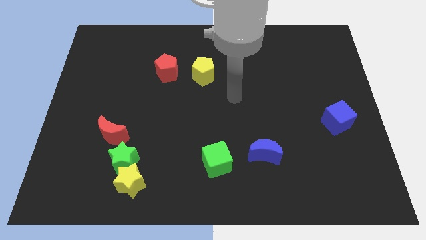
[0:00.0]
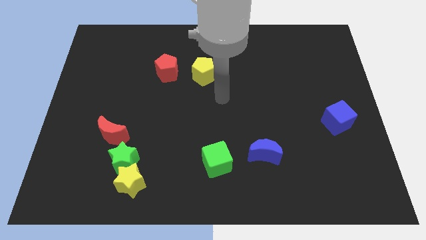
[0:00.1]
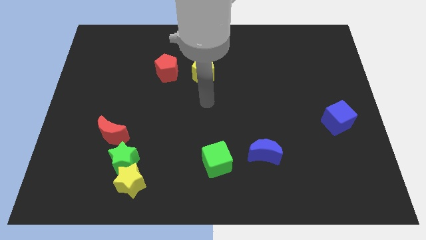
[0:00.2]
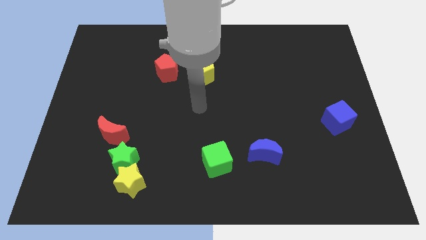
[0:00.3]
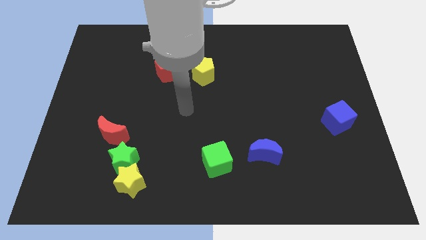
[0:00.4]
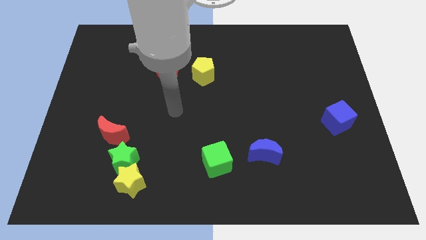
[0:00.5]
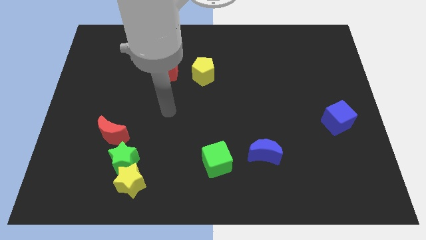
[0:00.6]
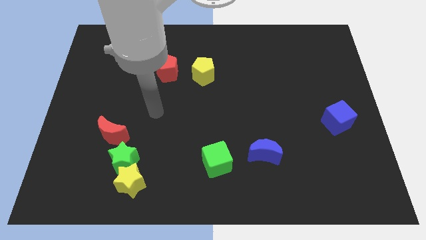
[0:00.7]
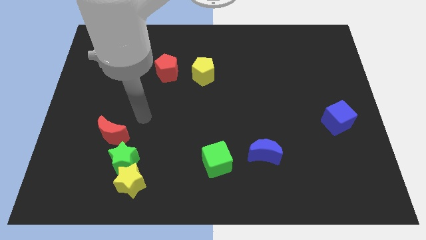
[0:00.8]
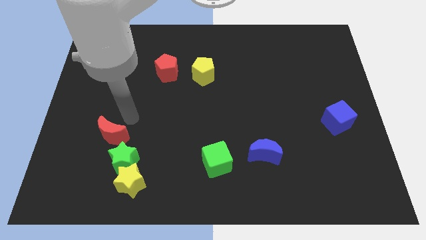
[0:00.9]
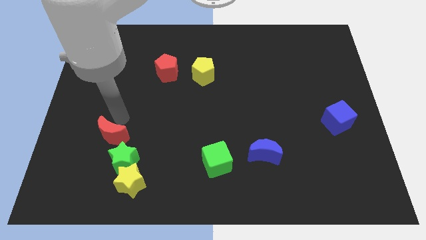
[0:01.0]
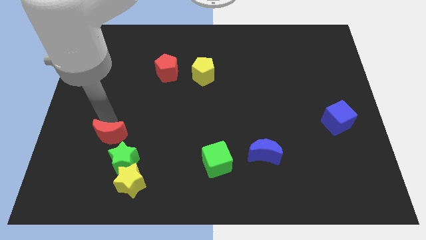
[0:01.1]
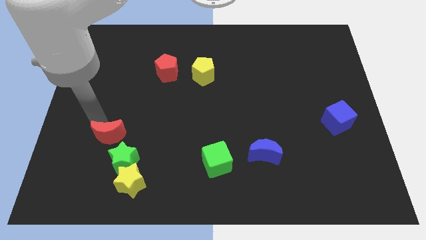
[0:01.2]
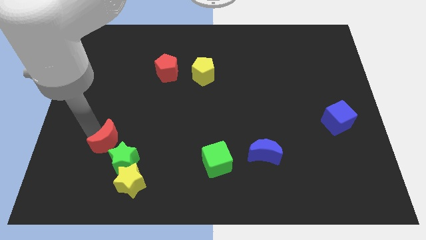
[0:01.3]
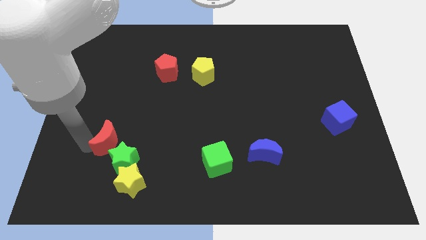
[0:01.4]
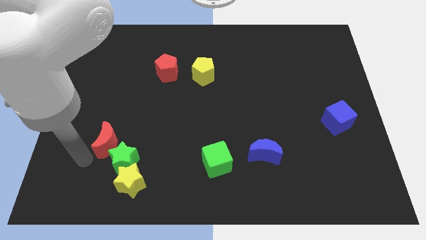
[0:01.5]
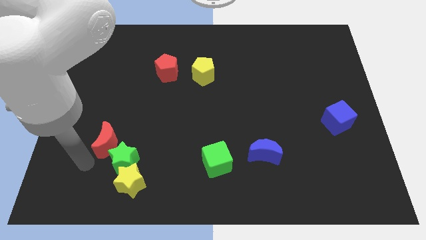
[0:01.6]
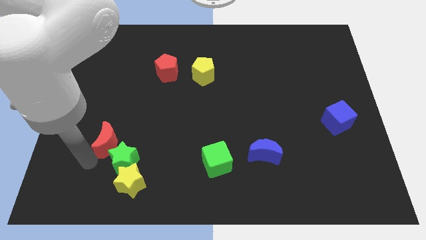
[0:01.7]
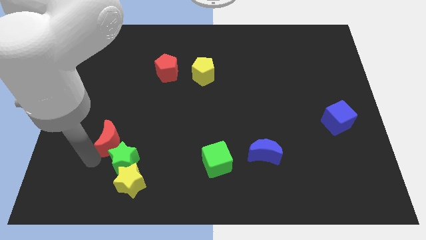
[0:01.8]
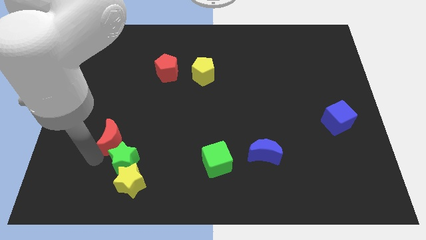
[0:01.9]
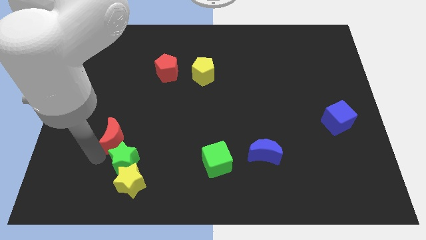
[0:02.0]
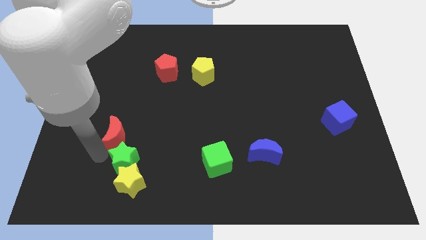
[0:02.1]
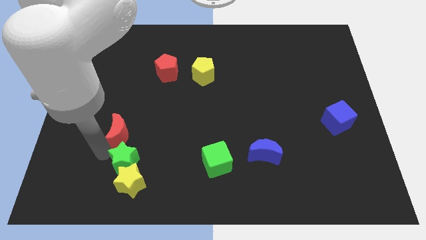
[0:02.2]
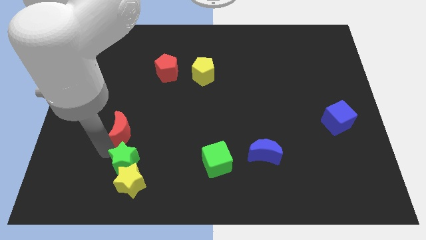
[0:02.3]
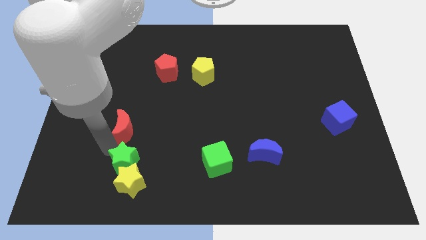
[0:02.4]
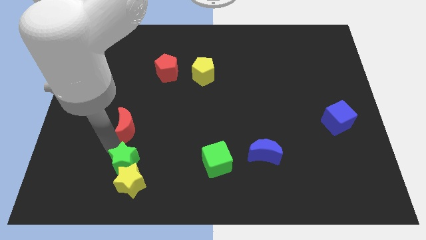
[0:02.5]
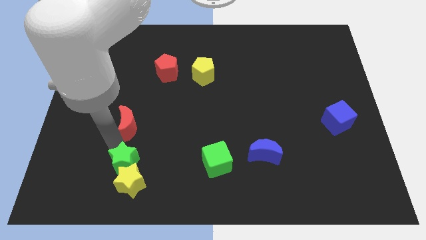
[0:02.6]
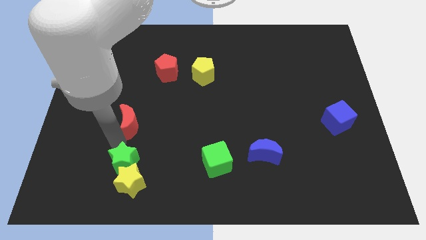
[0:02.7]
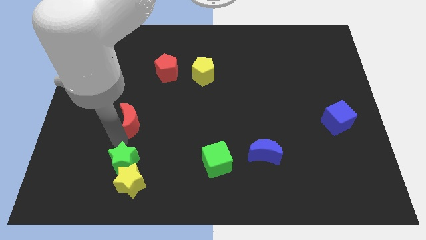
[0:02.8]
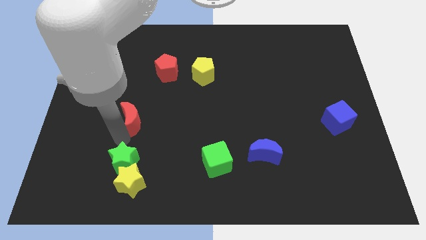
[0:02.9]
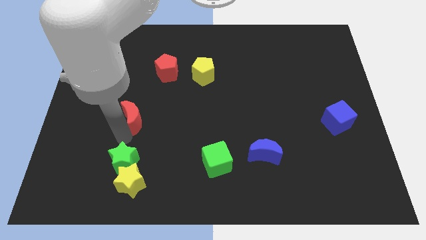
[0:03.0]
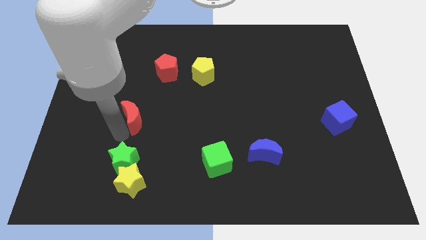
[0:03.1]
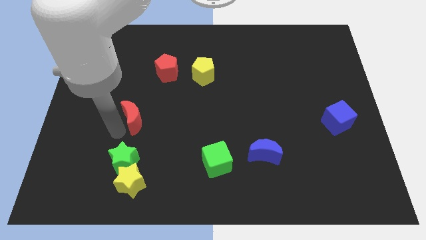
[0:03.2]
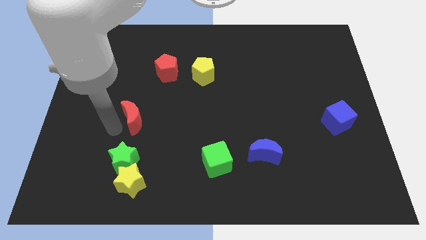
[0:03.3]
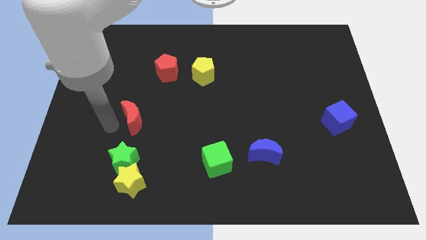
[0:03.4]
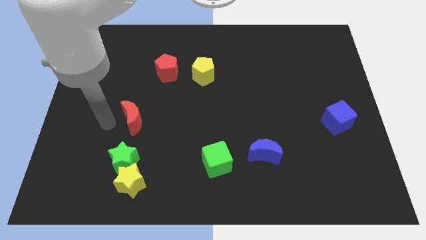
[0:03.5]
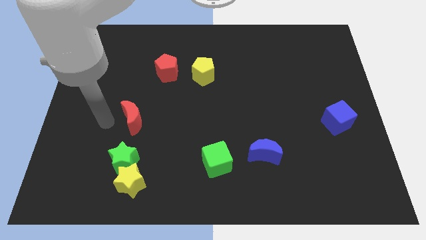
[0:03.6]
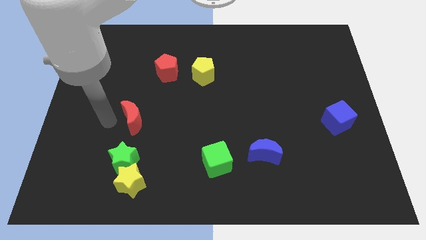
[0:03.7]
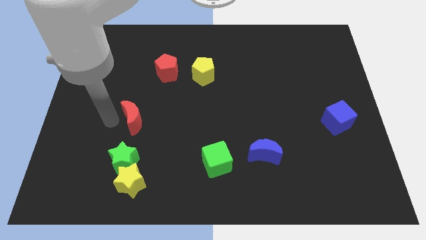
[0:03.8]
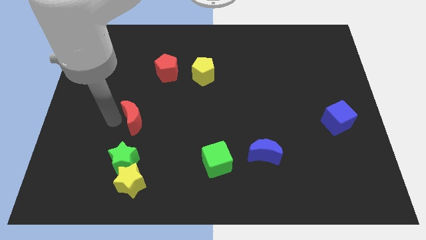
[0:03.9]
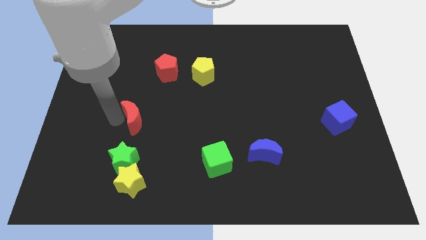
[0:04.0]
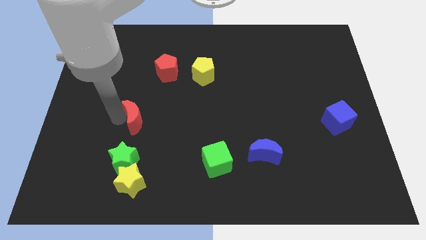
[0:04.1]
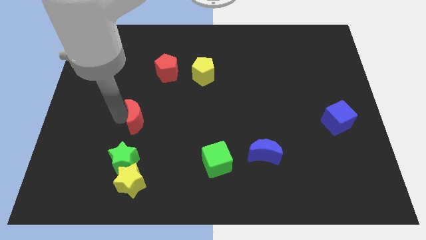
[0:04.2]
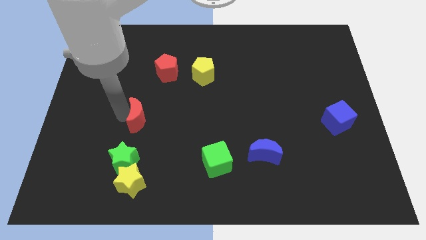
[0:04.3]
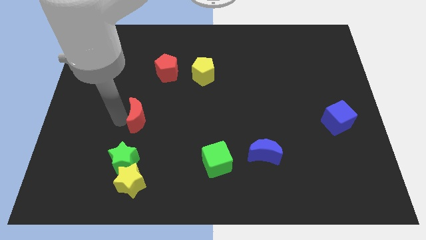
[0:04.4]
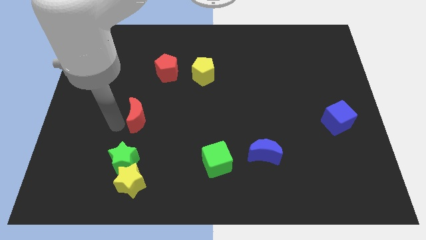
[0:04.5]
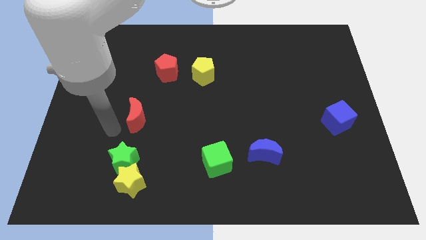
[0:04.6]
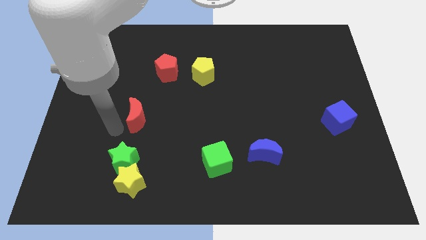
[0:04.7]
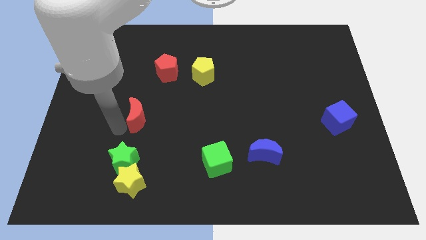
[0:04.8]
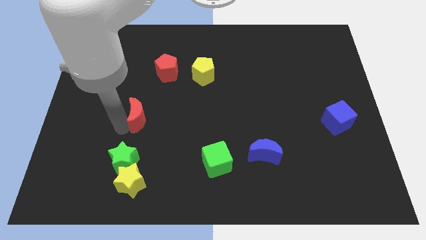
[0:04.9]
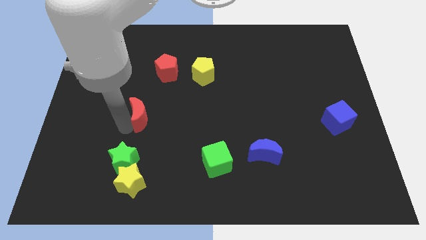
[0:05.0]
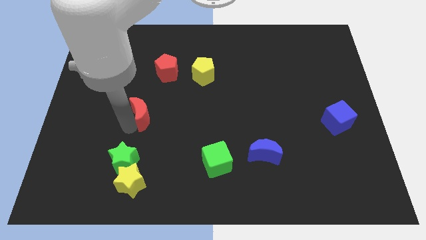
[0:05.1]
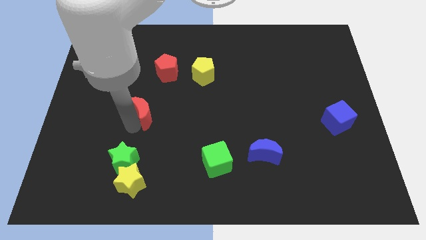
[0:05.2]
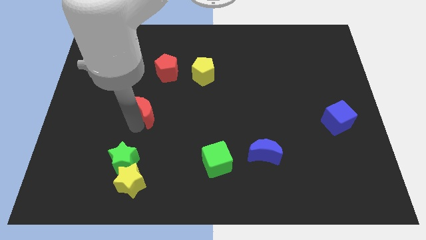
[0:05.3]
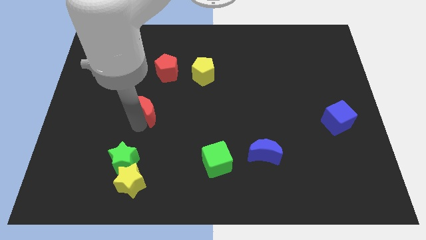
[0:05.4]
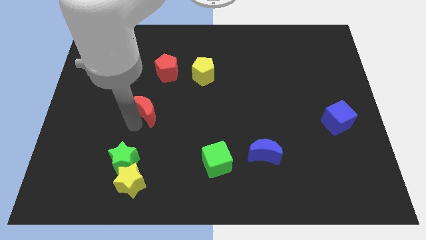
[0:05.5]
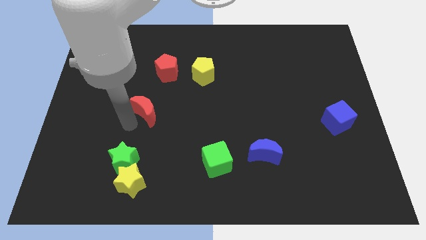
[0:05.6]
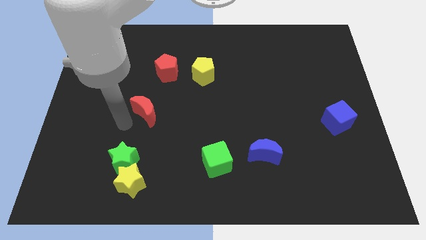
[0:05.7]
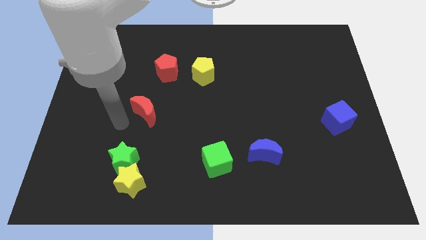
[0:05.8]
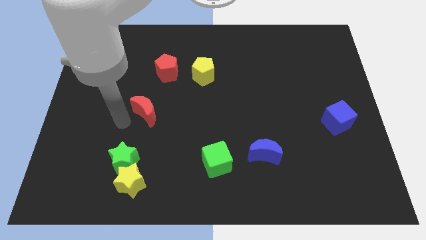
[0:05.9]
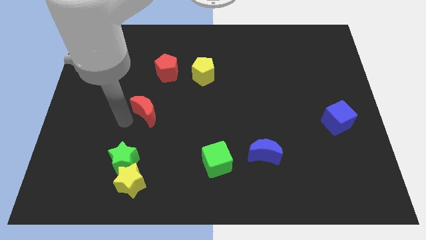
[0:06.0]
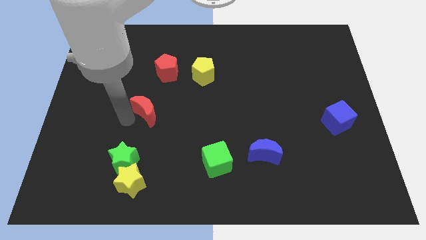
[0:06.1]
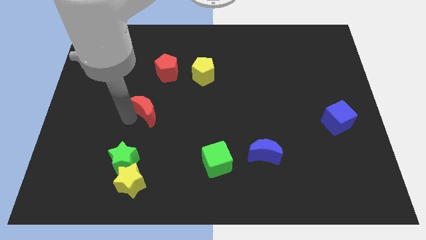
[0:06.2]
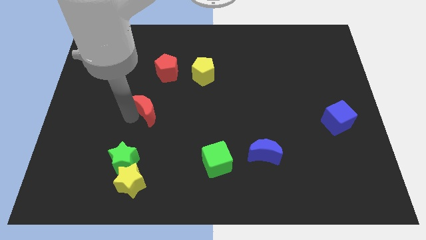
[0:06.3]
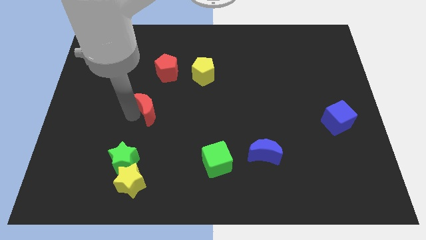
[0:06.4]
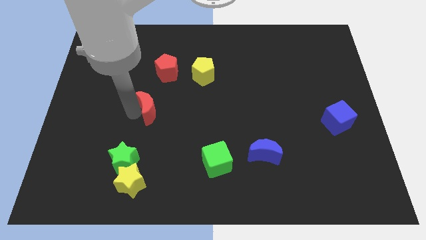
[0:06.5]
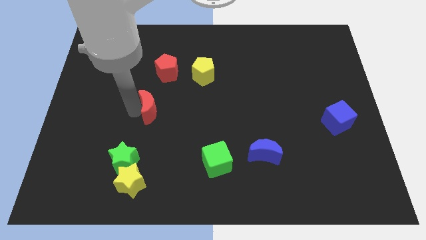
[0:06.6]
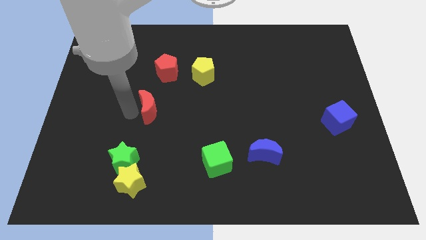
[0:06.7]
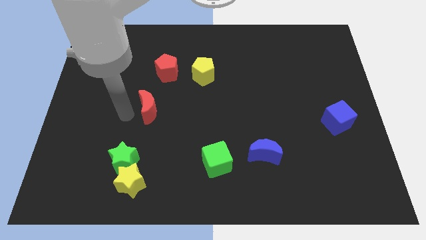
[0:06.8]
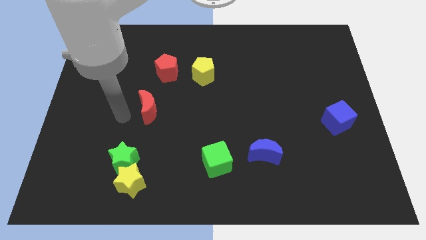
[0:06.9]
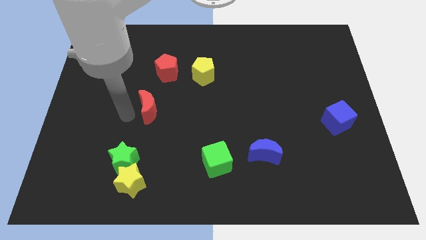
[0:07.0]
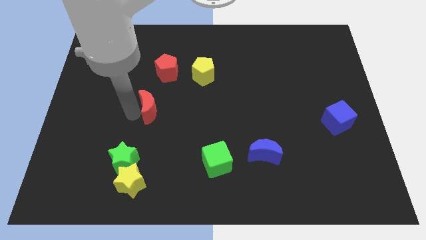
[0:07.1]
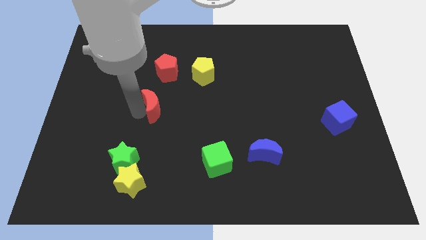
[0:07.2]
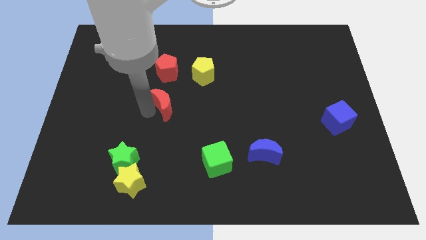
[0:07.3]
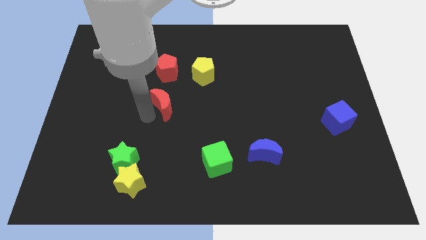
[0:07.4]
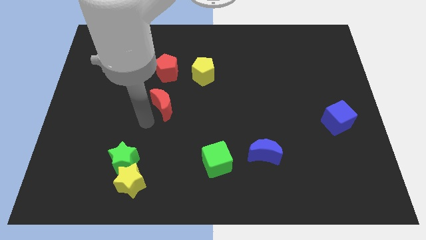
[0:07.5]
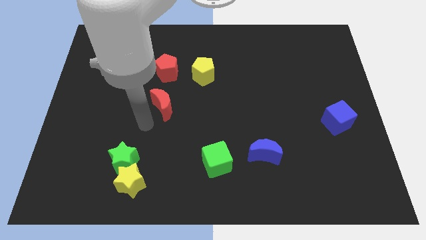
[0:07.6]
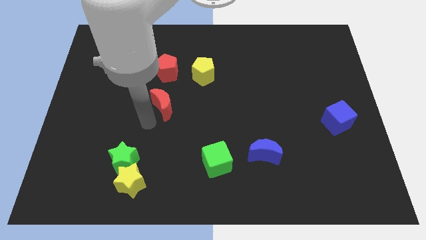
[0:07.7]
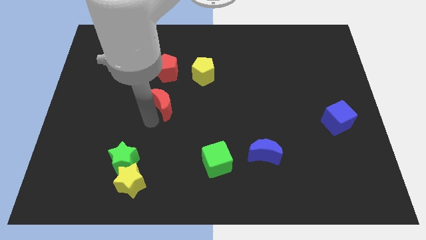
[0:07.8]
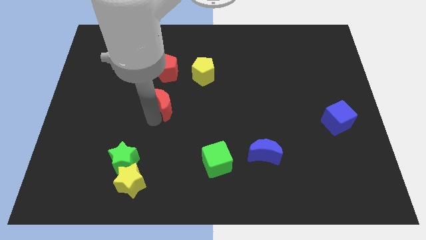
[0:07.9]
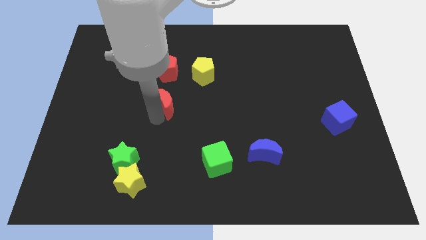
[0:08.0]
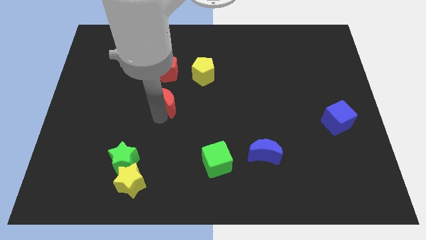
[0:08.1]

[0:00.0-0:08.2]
push the red moon diagonally down and to the left of the yellow pentagon
